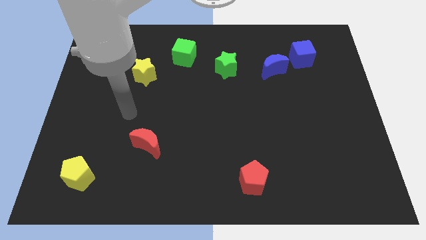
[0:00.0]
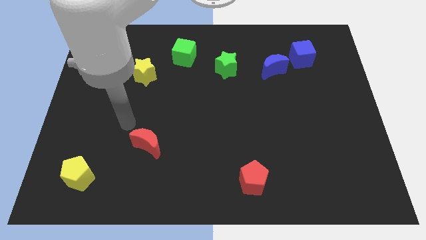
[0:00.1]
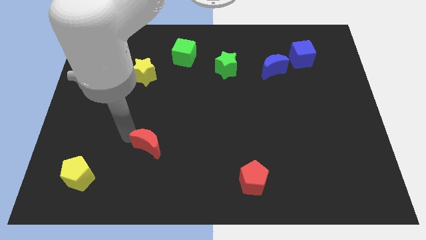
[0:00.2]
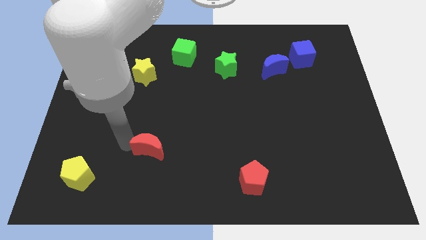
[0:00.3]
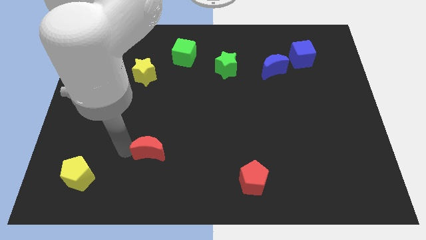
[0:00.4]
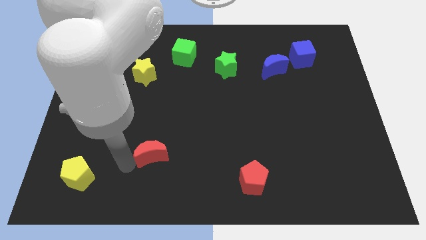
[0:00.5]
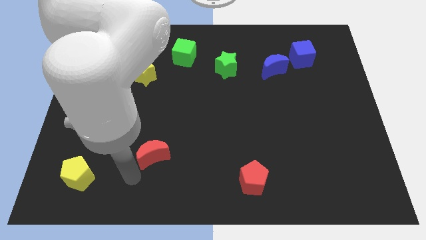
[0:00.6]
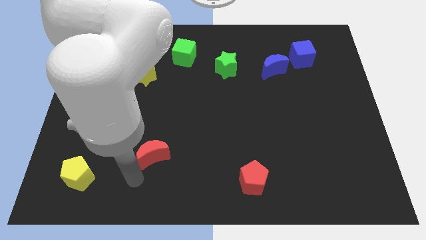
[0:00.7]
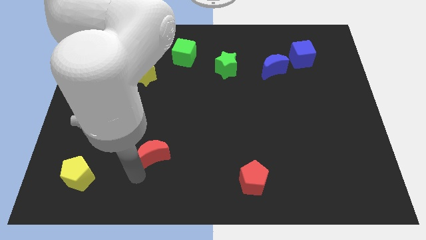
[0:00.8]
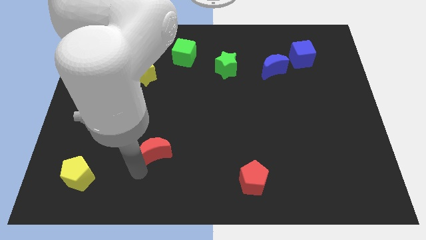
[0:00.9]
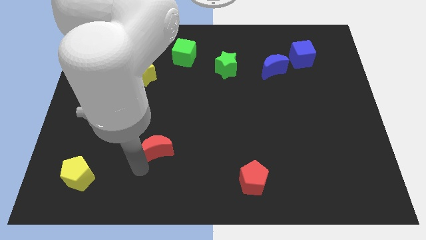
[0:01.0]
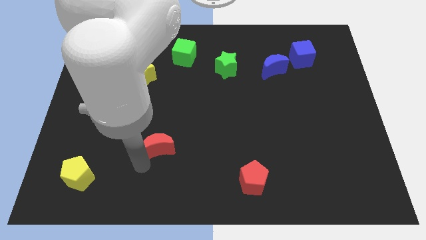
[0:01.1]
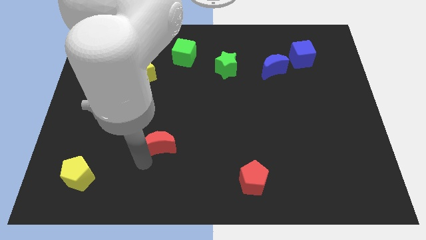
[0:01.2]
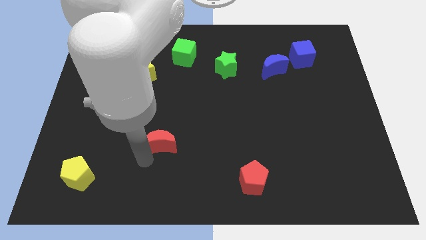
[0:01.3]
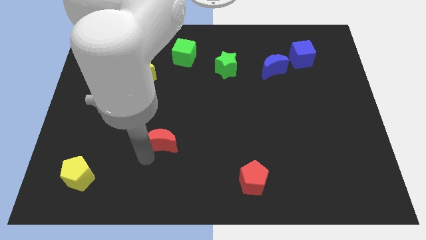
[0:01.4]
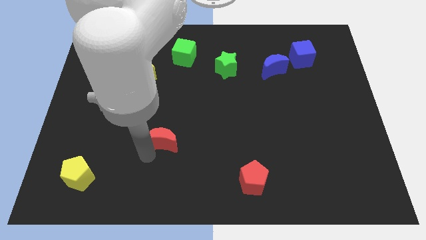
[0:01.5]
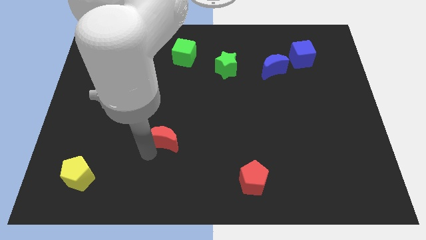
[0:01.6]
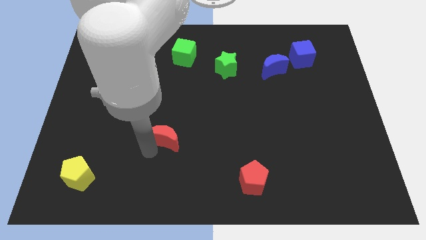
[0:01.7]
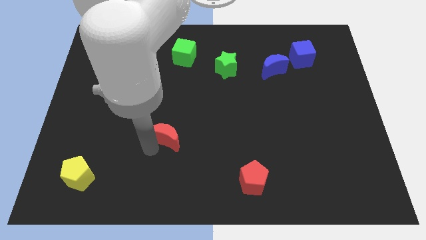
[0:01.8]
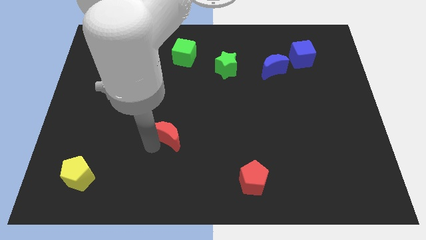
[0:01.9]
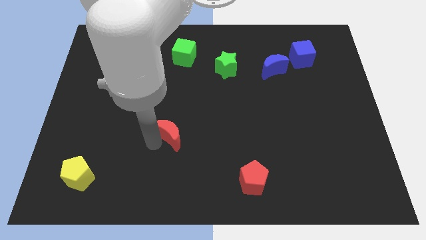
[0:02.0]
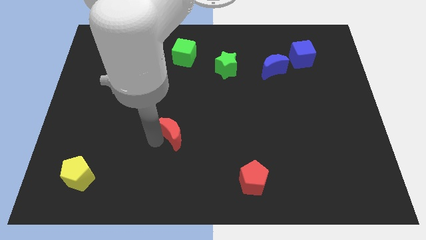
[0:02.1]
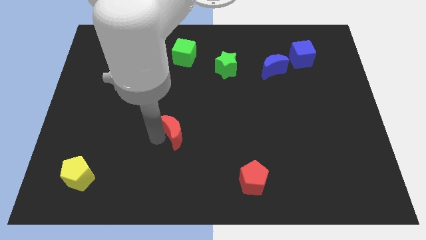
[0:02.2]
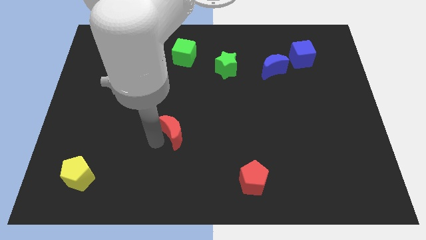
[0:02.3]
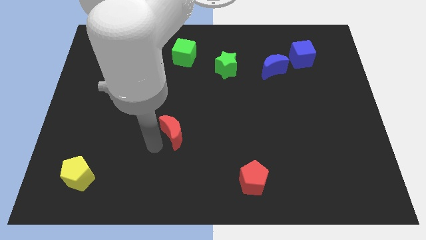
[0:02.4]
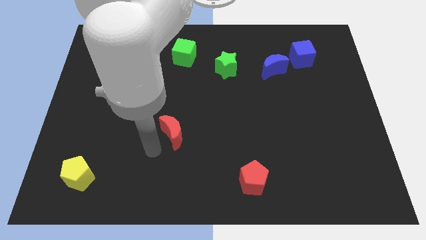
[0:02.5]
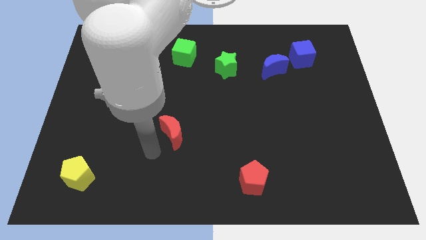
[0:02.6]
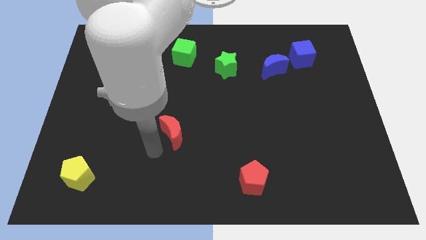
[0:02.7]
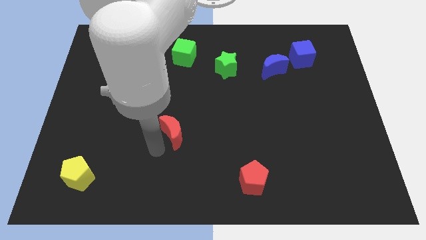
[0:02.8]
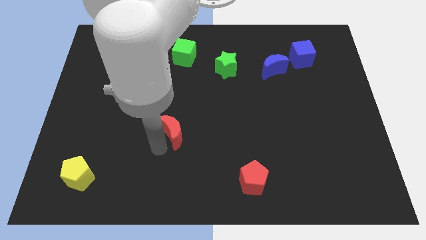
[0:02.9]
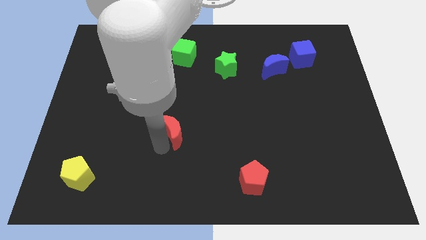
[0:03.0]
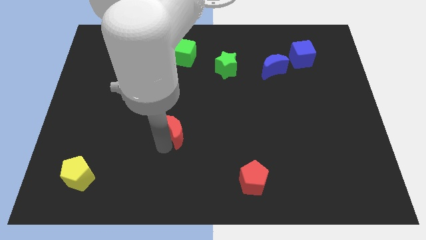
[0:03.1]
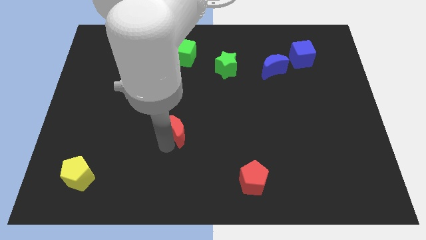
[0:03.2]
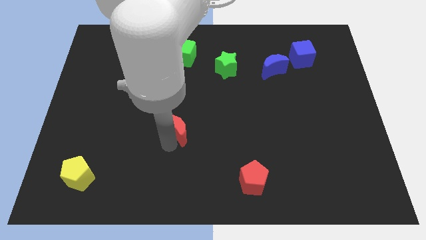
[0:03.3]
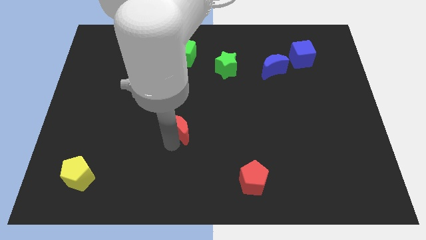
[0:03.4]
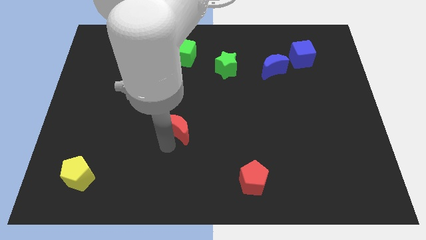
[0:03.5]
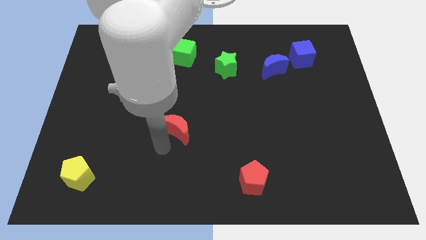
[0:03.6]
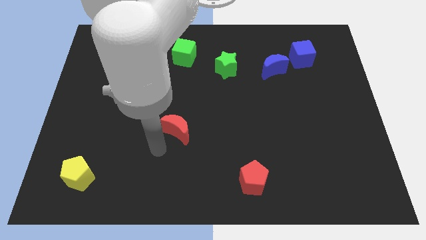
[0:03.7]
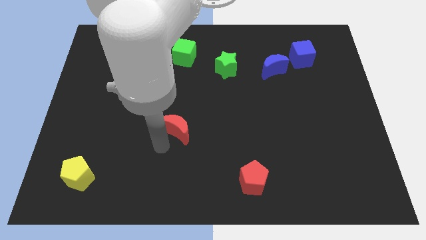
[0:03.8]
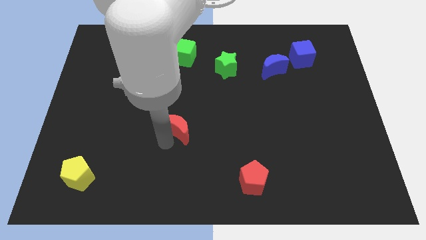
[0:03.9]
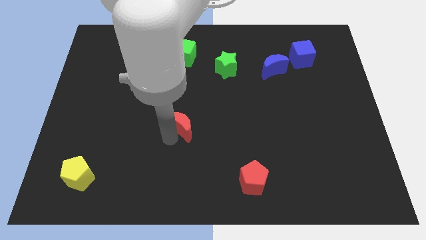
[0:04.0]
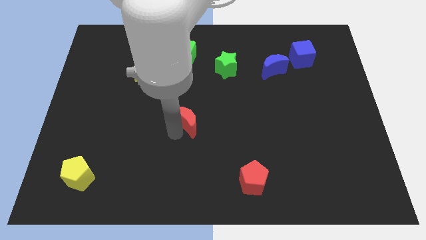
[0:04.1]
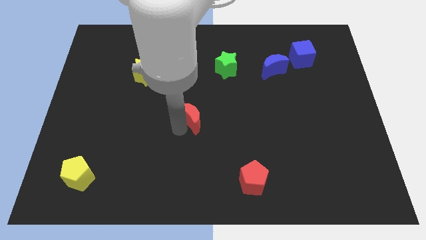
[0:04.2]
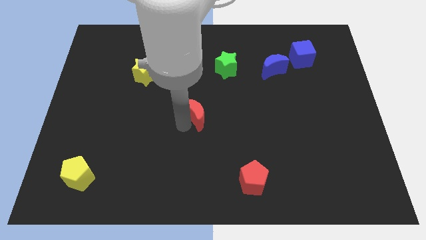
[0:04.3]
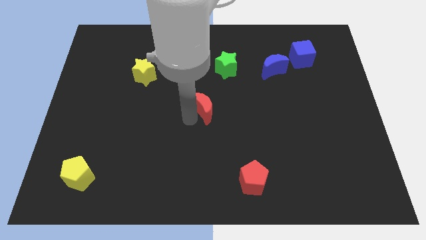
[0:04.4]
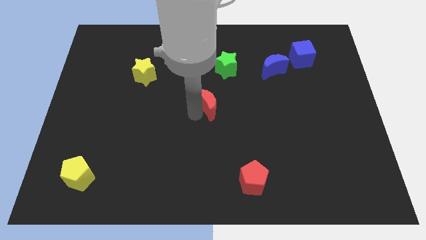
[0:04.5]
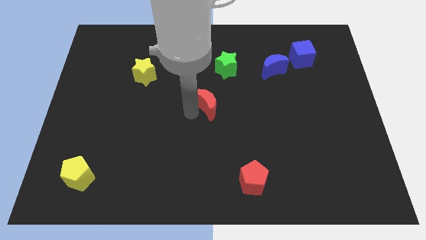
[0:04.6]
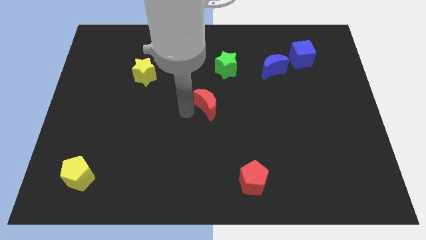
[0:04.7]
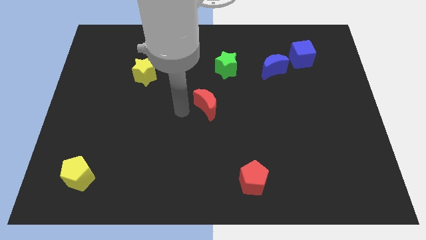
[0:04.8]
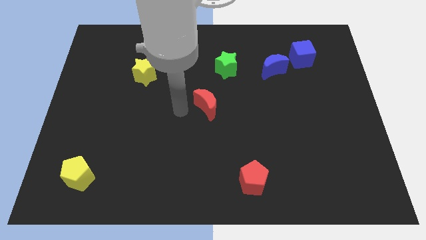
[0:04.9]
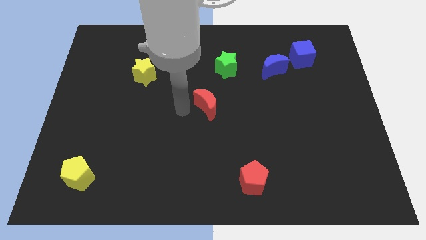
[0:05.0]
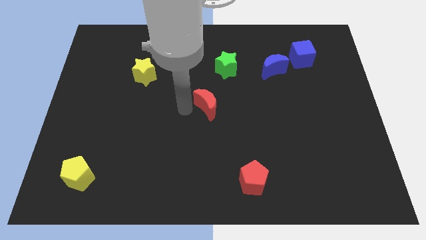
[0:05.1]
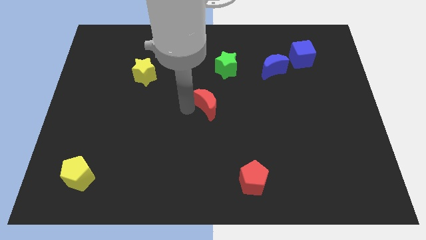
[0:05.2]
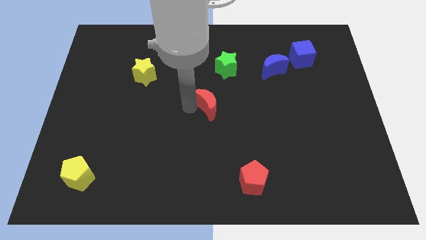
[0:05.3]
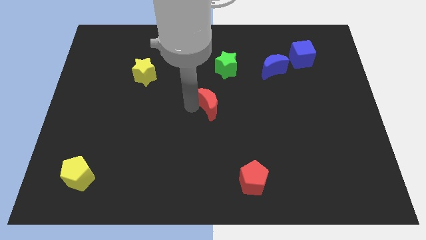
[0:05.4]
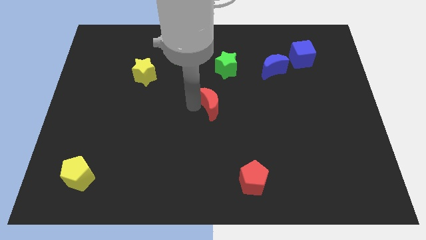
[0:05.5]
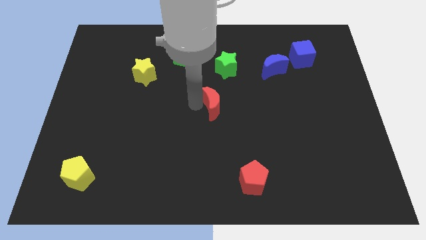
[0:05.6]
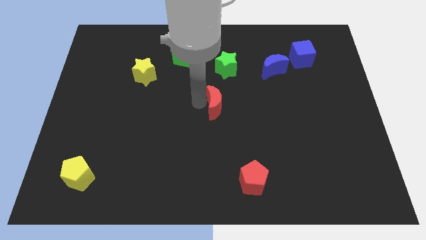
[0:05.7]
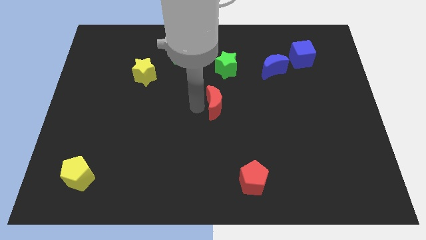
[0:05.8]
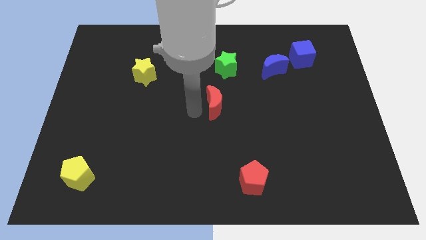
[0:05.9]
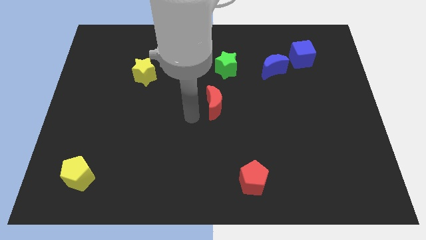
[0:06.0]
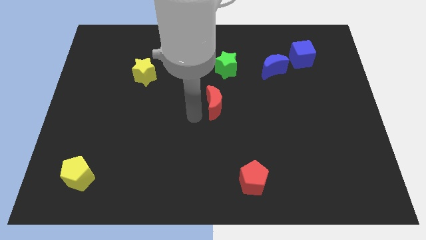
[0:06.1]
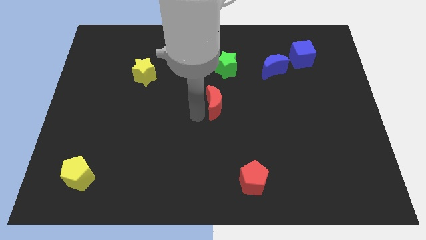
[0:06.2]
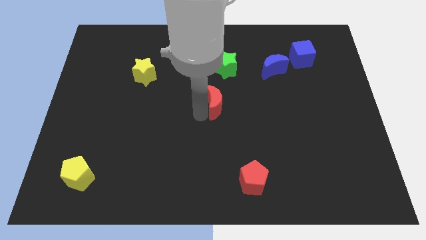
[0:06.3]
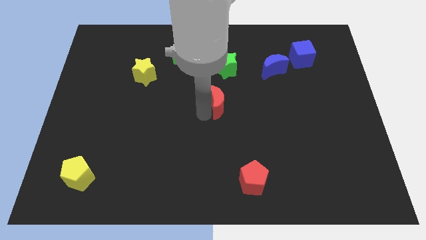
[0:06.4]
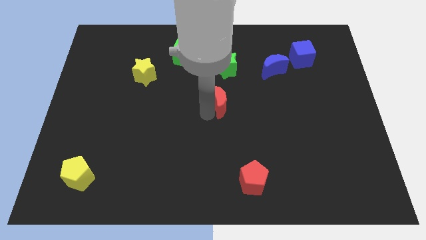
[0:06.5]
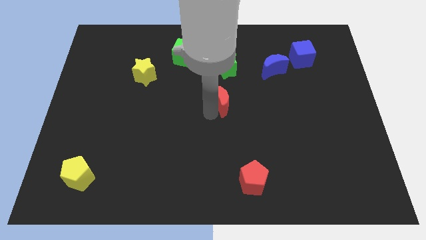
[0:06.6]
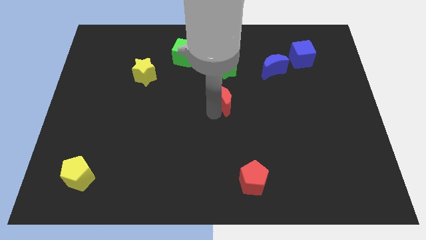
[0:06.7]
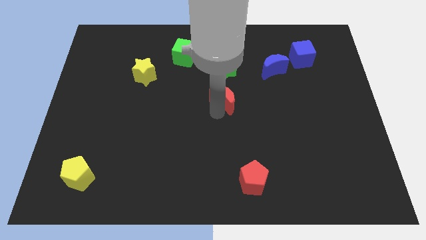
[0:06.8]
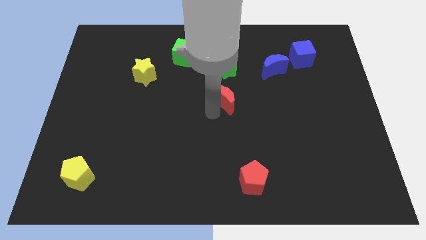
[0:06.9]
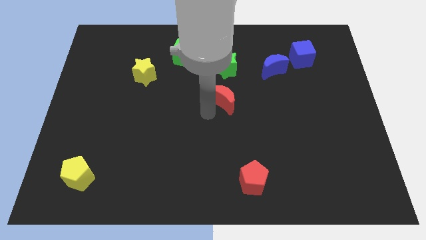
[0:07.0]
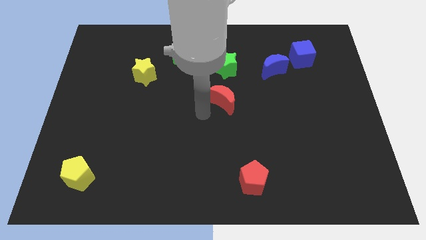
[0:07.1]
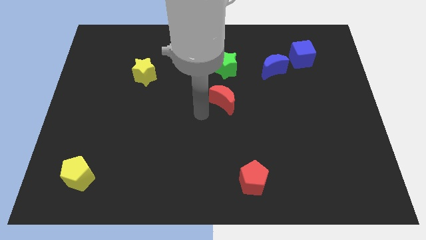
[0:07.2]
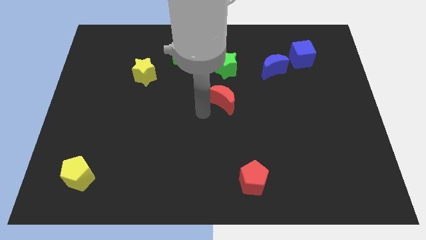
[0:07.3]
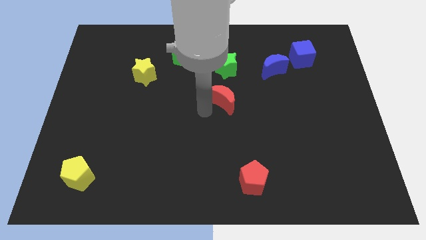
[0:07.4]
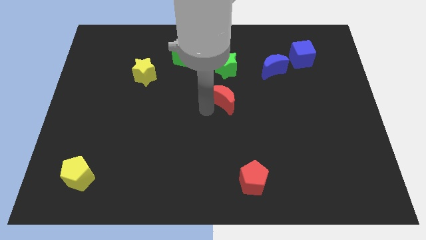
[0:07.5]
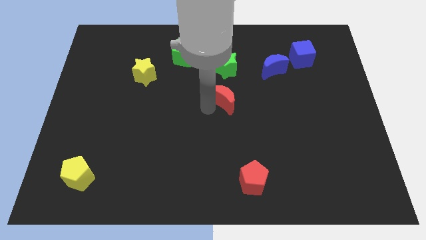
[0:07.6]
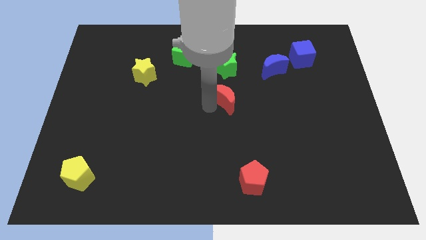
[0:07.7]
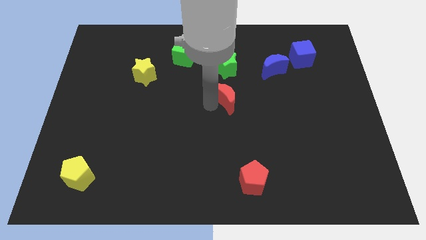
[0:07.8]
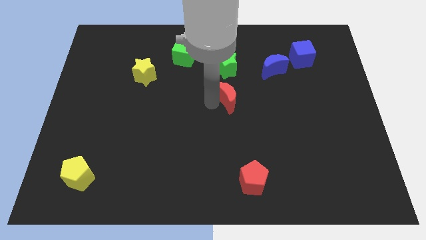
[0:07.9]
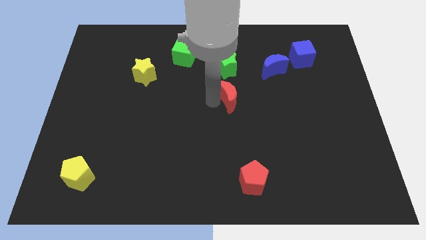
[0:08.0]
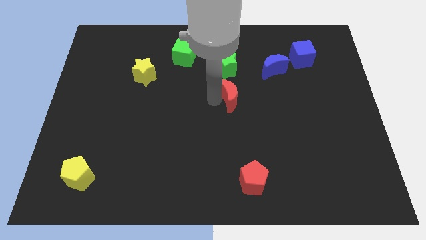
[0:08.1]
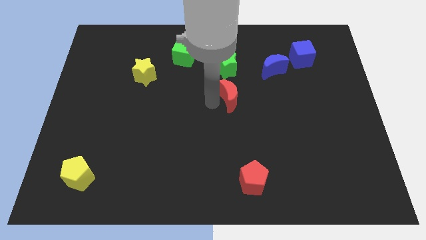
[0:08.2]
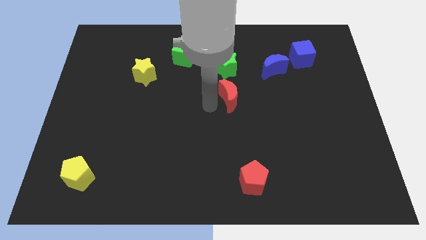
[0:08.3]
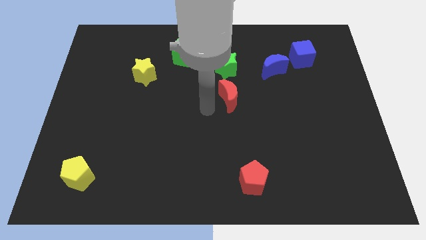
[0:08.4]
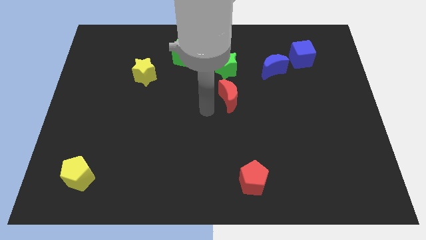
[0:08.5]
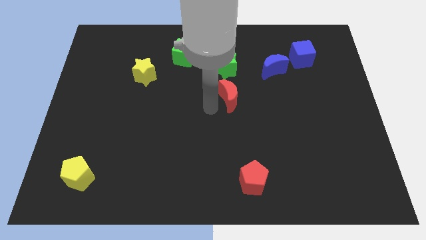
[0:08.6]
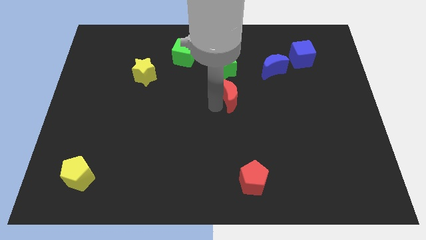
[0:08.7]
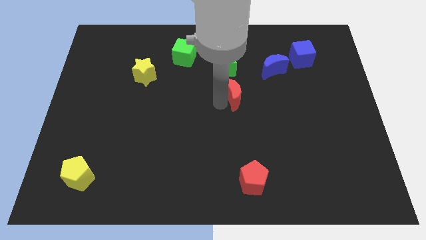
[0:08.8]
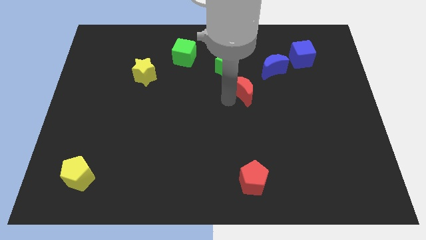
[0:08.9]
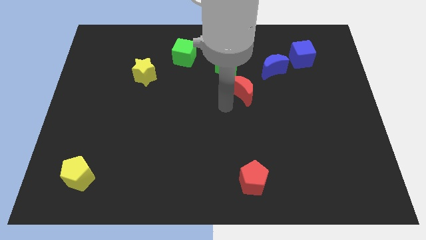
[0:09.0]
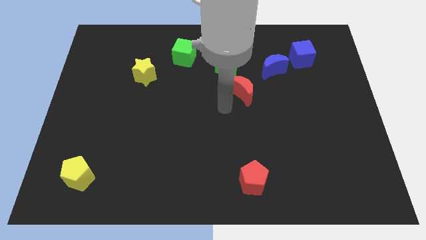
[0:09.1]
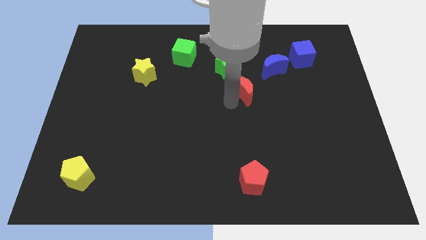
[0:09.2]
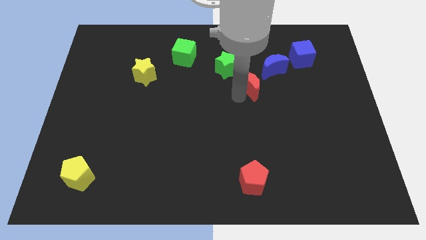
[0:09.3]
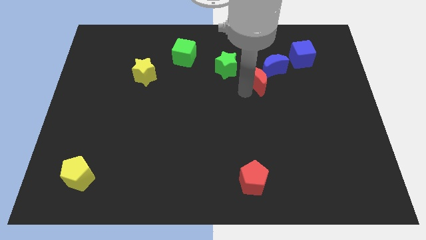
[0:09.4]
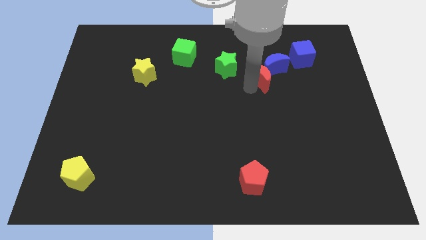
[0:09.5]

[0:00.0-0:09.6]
put the red moon next to the blue moon
